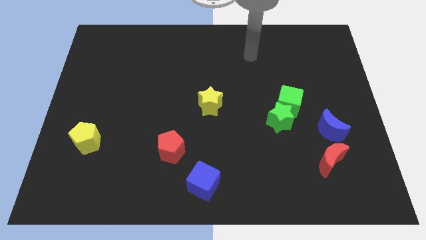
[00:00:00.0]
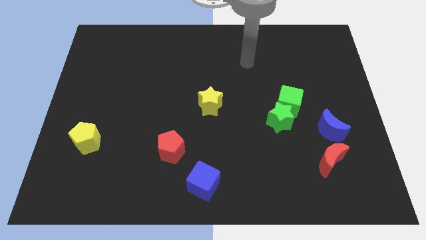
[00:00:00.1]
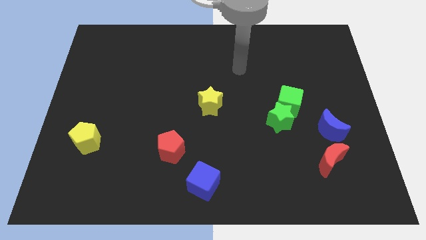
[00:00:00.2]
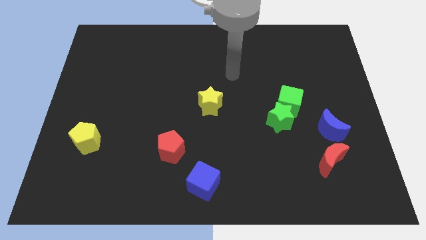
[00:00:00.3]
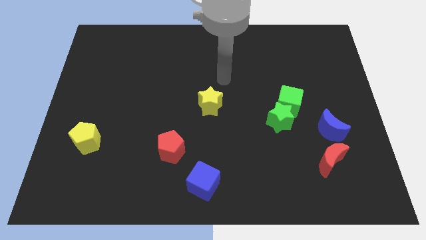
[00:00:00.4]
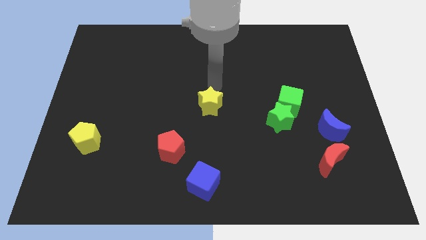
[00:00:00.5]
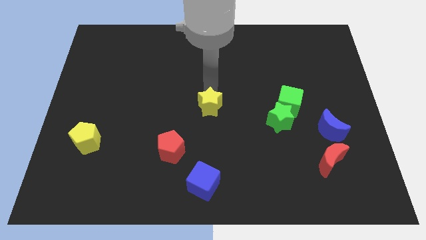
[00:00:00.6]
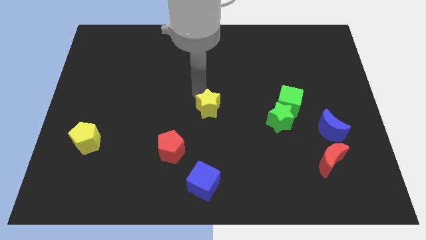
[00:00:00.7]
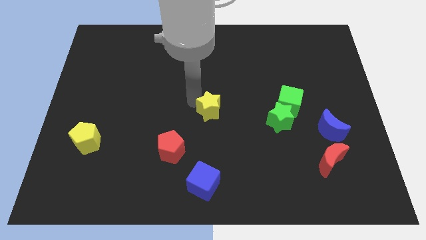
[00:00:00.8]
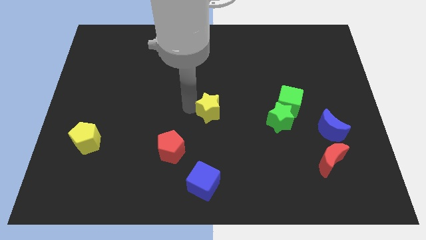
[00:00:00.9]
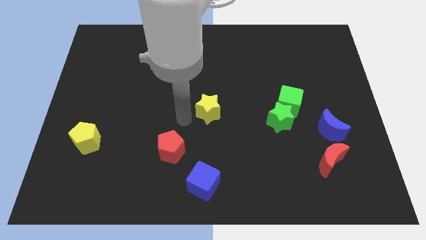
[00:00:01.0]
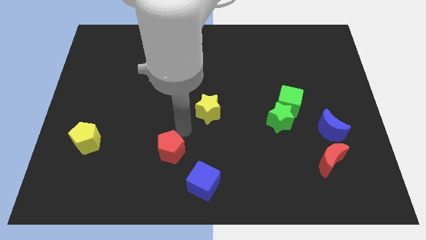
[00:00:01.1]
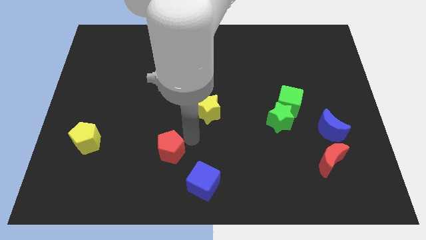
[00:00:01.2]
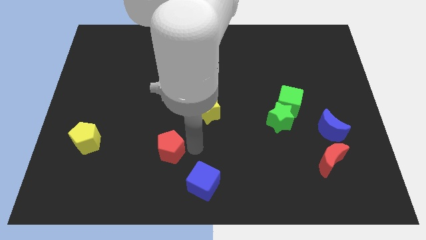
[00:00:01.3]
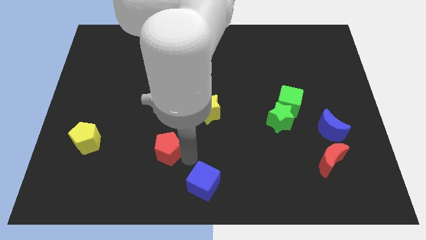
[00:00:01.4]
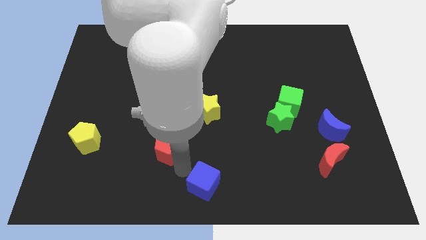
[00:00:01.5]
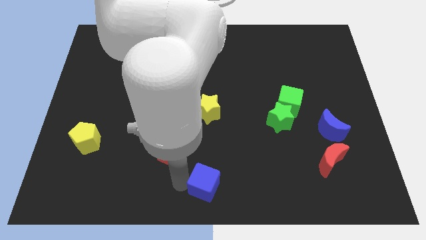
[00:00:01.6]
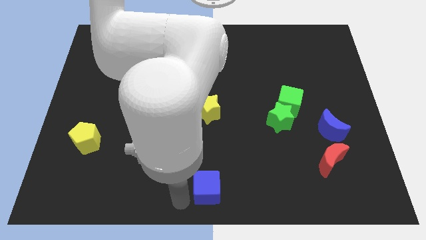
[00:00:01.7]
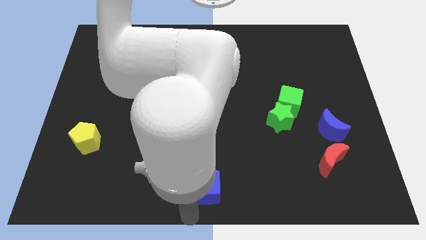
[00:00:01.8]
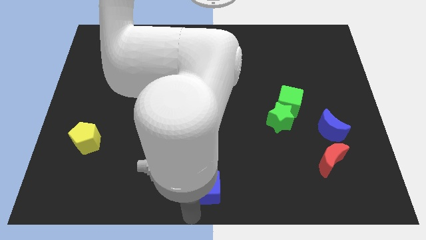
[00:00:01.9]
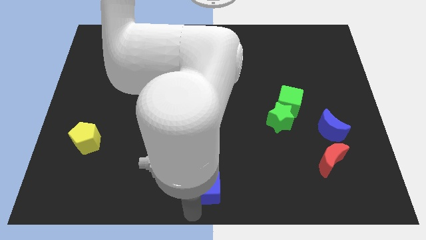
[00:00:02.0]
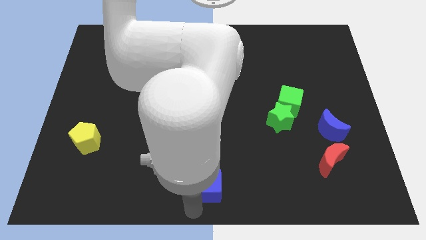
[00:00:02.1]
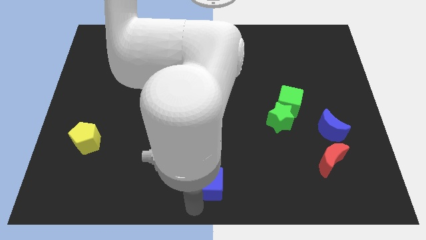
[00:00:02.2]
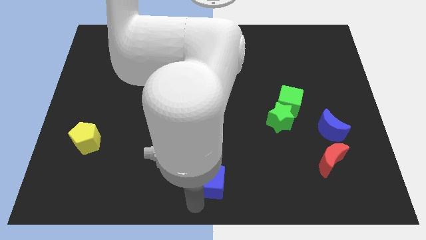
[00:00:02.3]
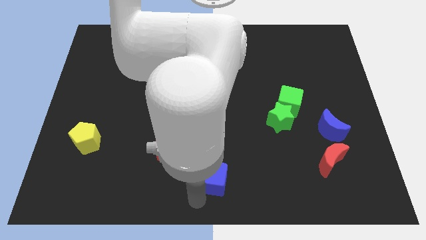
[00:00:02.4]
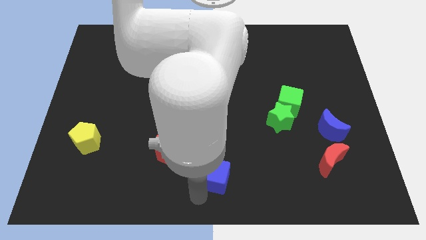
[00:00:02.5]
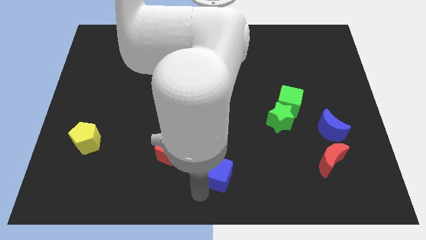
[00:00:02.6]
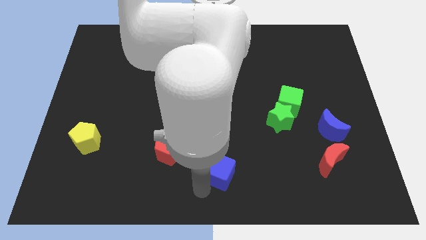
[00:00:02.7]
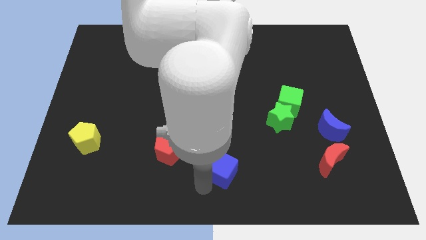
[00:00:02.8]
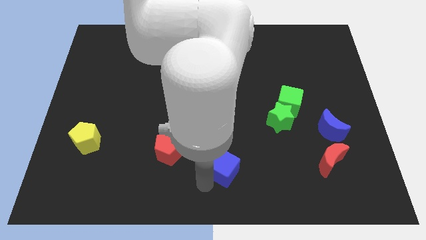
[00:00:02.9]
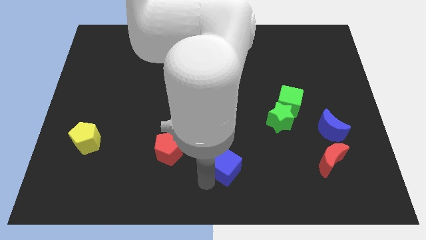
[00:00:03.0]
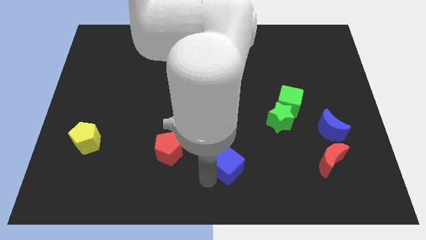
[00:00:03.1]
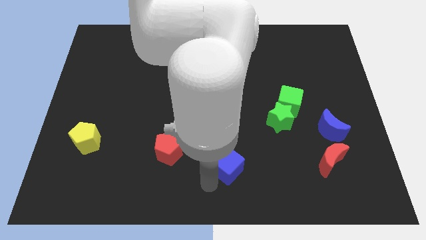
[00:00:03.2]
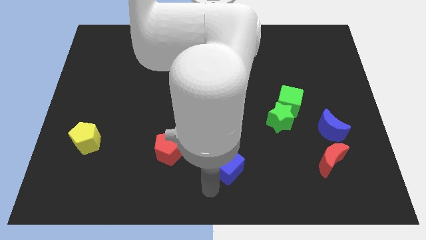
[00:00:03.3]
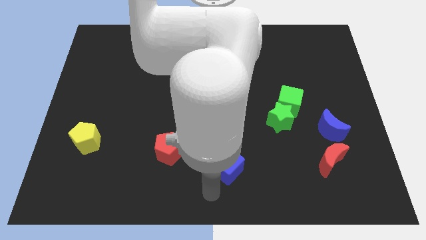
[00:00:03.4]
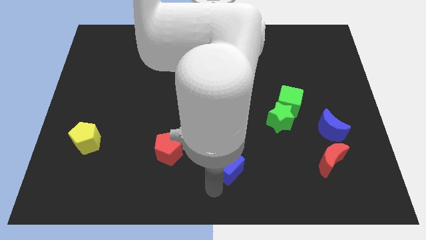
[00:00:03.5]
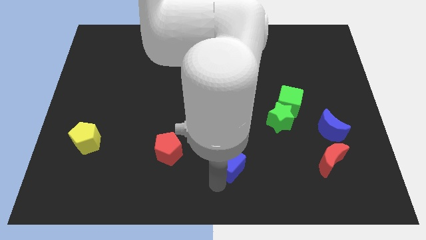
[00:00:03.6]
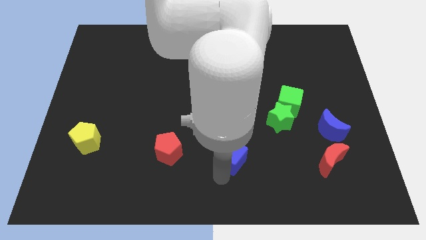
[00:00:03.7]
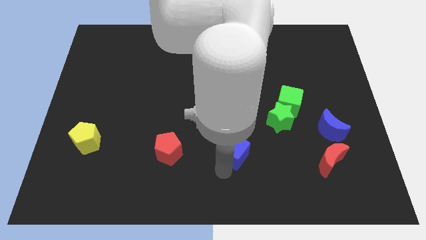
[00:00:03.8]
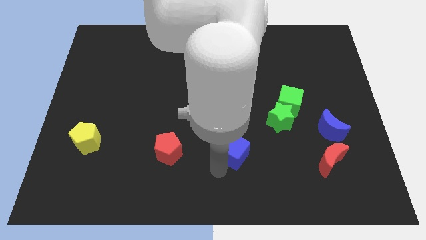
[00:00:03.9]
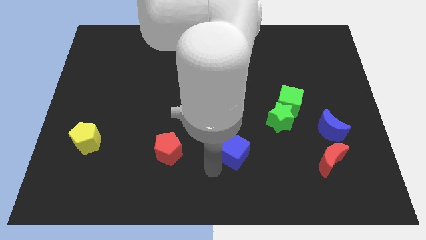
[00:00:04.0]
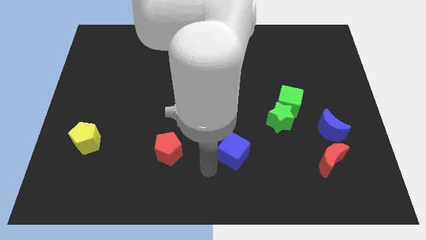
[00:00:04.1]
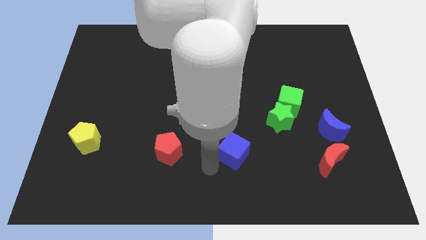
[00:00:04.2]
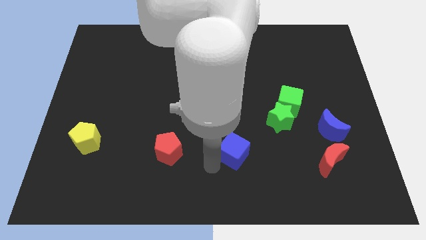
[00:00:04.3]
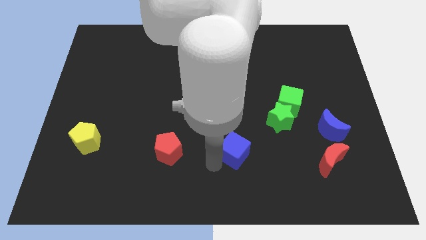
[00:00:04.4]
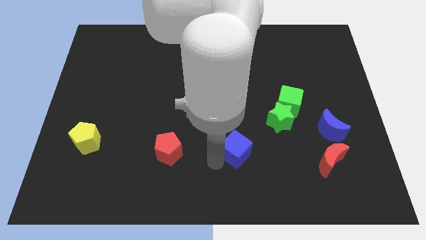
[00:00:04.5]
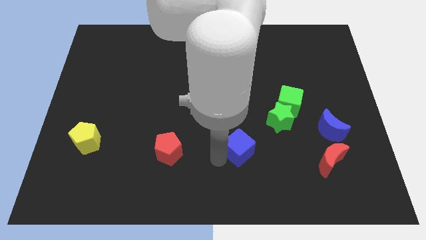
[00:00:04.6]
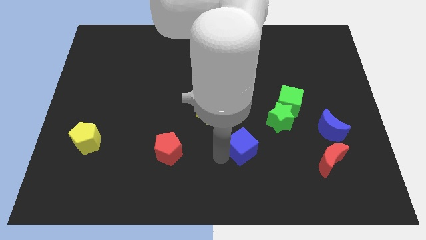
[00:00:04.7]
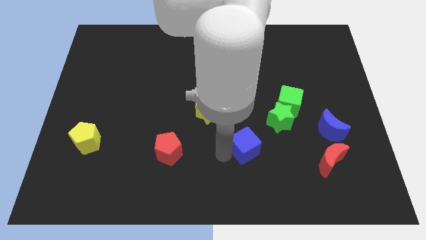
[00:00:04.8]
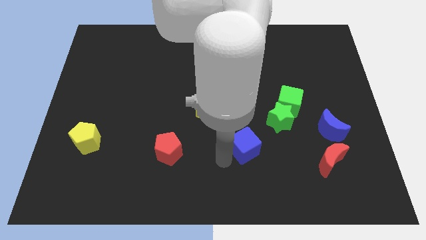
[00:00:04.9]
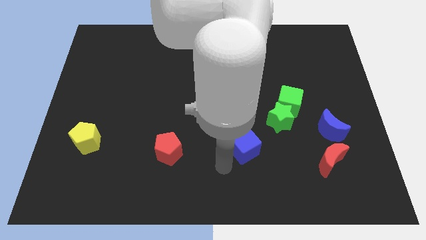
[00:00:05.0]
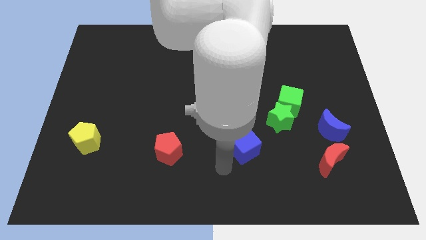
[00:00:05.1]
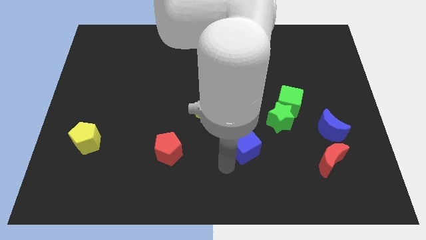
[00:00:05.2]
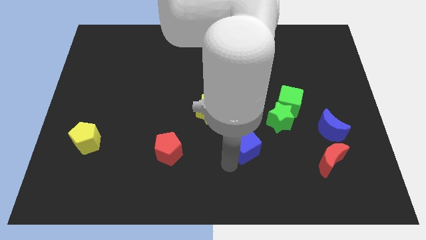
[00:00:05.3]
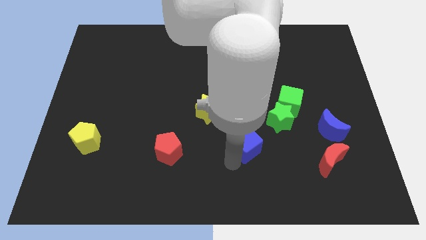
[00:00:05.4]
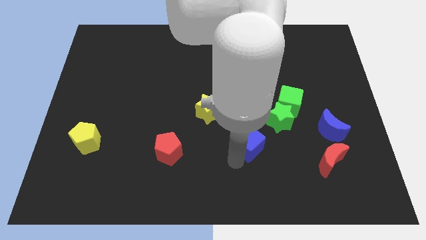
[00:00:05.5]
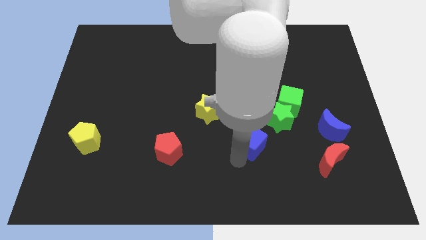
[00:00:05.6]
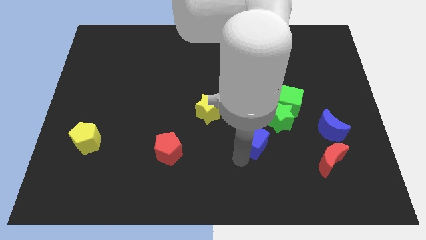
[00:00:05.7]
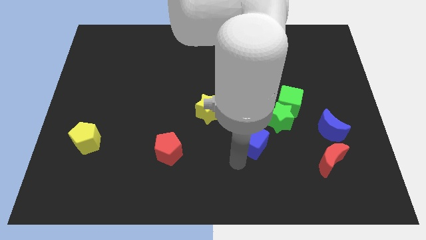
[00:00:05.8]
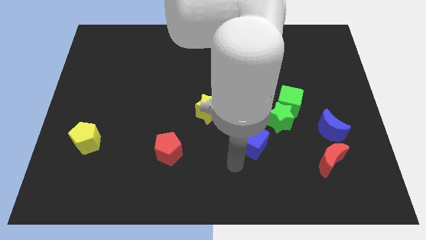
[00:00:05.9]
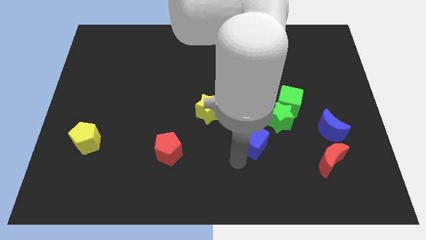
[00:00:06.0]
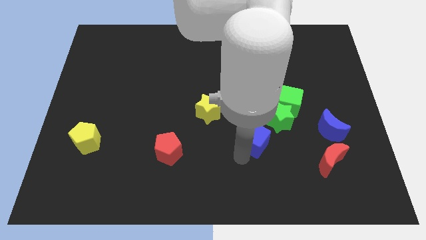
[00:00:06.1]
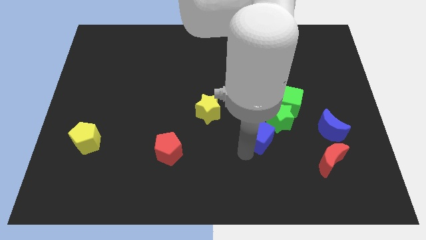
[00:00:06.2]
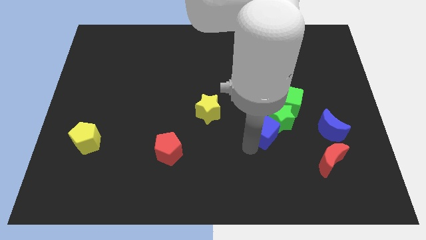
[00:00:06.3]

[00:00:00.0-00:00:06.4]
put the blue cube to the green star

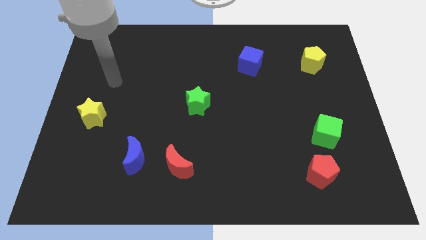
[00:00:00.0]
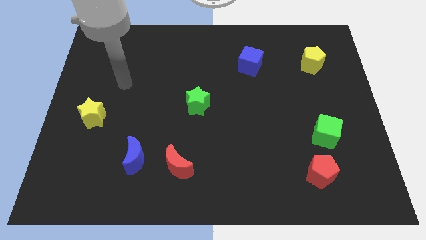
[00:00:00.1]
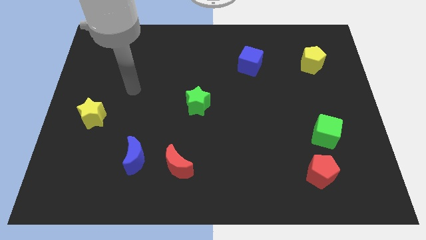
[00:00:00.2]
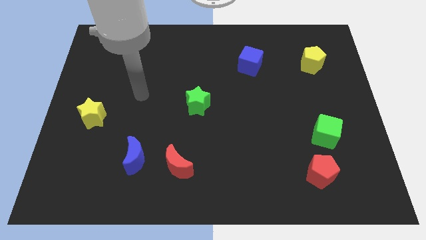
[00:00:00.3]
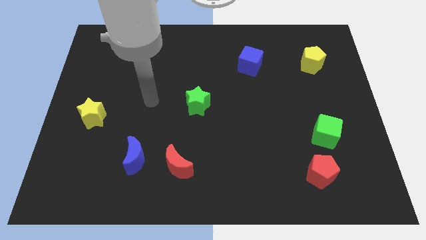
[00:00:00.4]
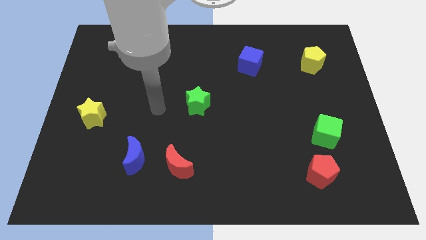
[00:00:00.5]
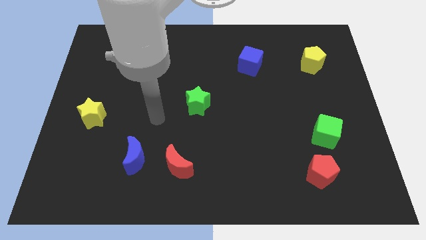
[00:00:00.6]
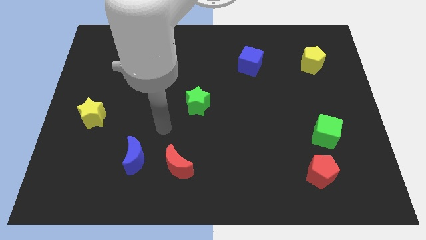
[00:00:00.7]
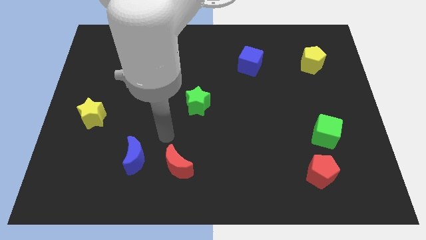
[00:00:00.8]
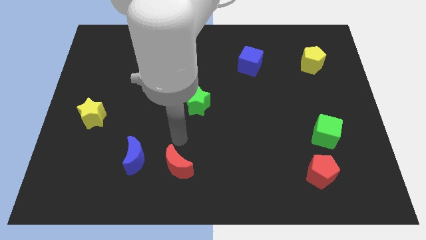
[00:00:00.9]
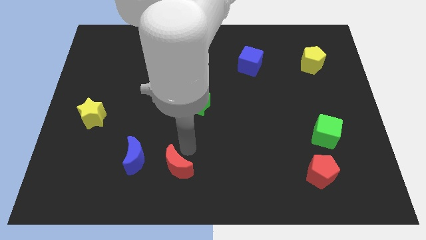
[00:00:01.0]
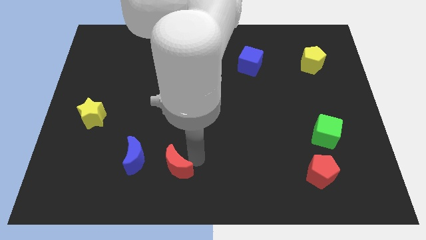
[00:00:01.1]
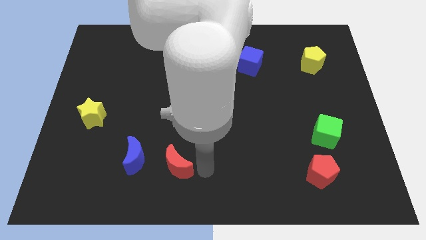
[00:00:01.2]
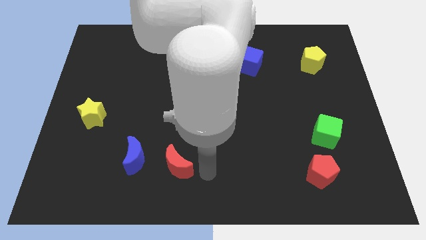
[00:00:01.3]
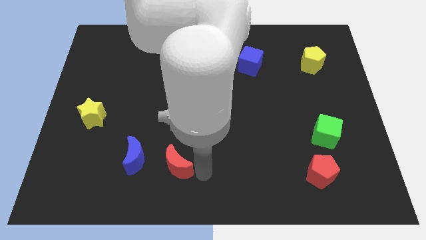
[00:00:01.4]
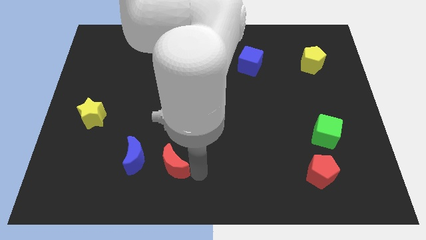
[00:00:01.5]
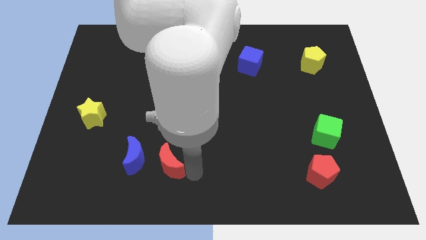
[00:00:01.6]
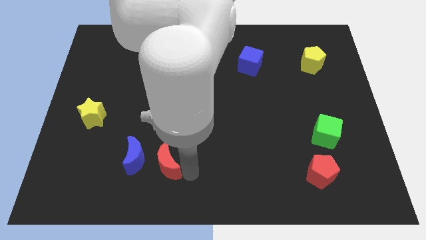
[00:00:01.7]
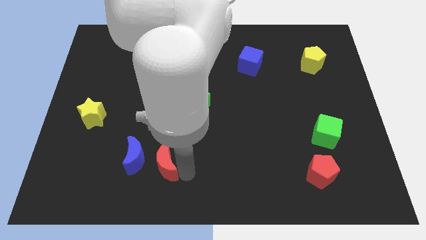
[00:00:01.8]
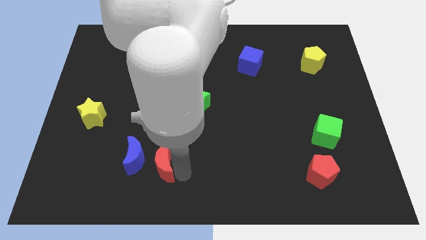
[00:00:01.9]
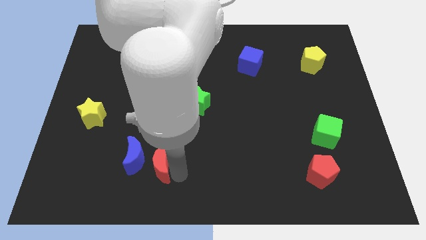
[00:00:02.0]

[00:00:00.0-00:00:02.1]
put the red moon to the blue moon
